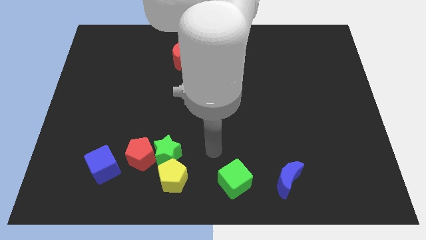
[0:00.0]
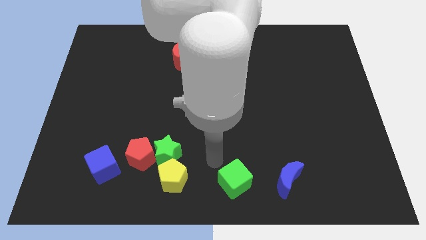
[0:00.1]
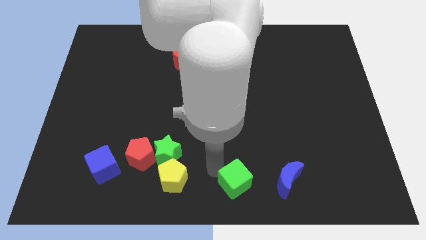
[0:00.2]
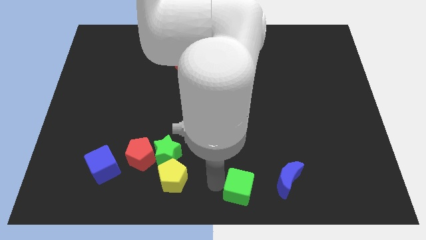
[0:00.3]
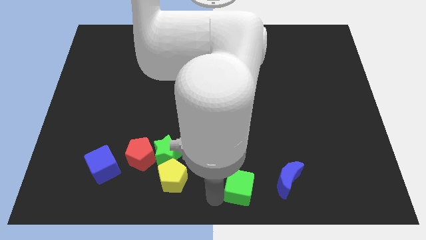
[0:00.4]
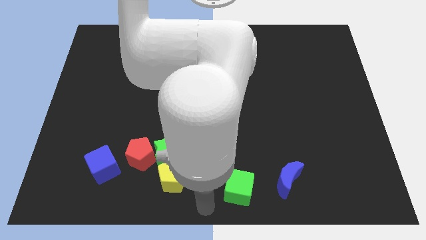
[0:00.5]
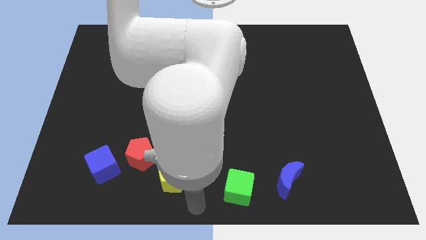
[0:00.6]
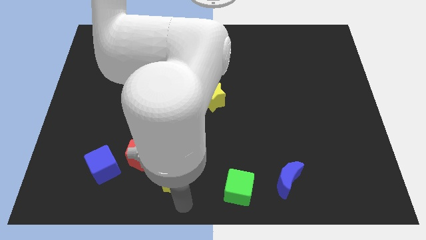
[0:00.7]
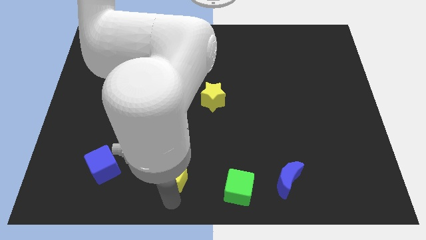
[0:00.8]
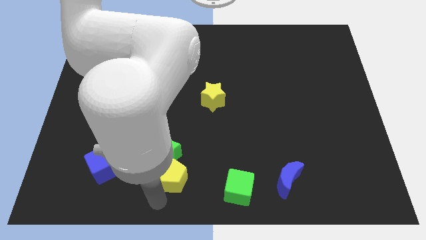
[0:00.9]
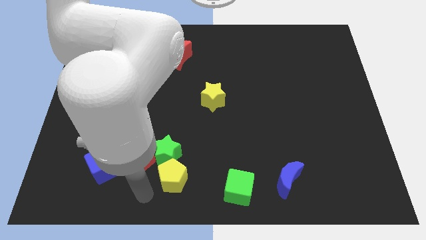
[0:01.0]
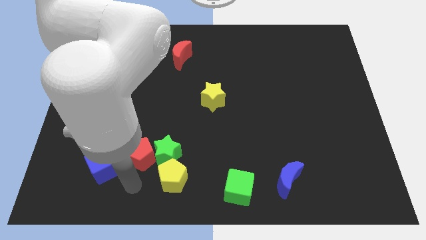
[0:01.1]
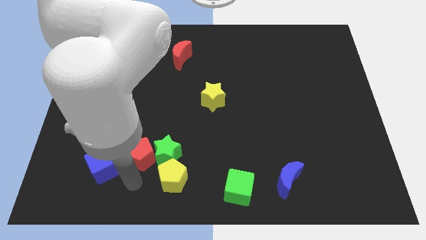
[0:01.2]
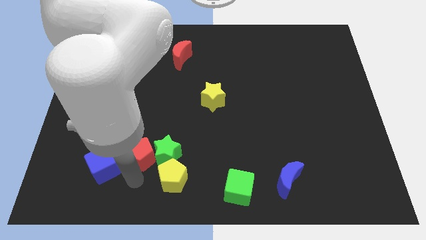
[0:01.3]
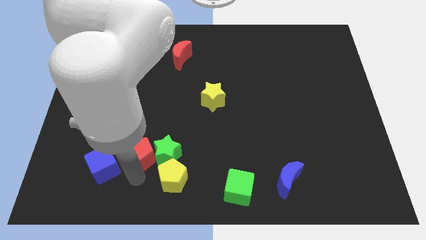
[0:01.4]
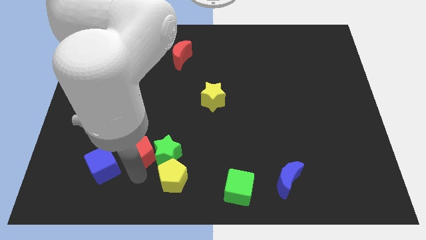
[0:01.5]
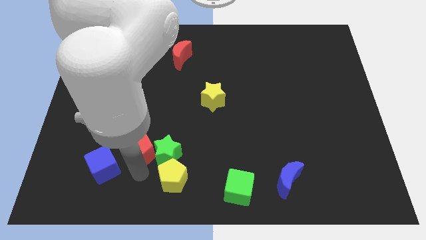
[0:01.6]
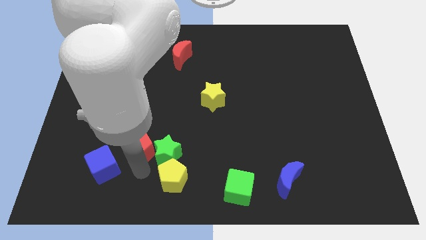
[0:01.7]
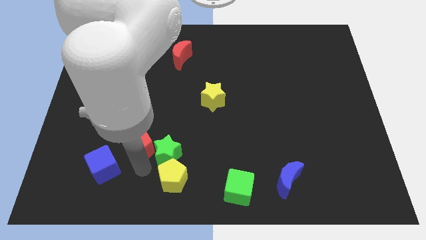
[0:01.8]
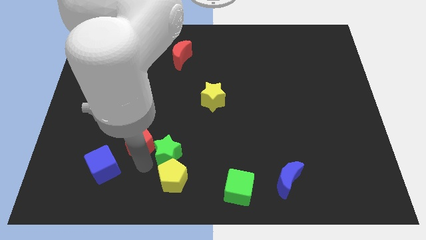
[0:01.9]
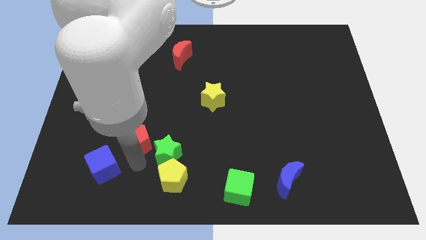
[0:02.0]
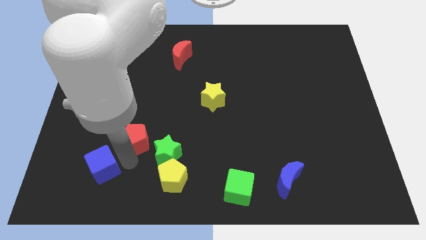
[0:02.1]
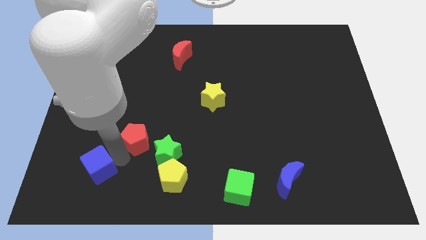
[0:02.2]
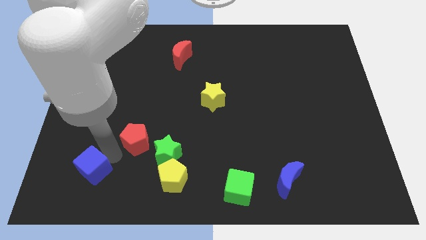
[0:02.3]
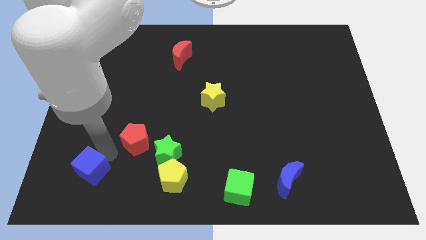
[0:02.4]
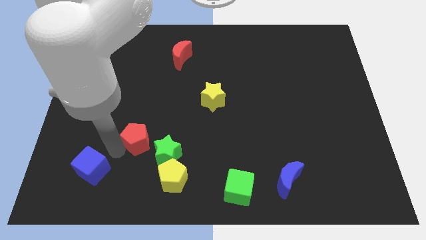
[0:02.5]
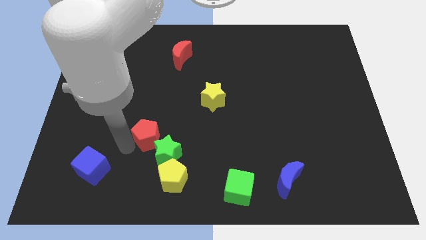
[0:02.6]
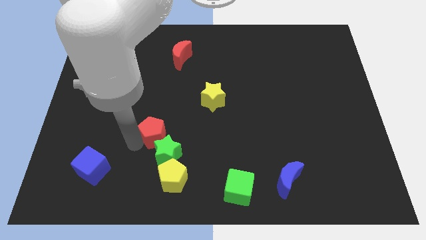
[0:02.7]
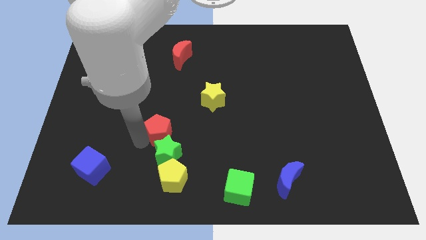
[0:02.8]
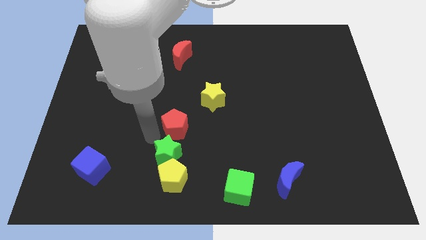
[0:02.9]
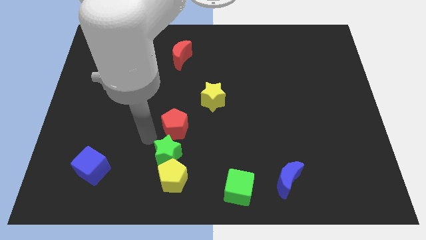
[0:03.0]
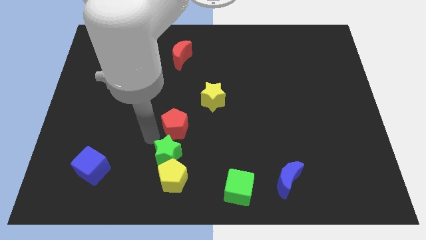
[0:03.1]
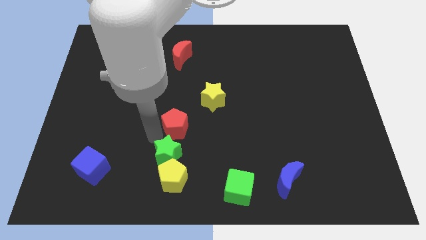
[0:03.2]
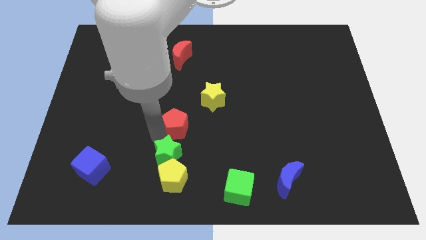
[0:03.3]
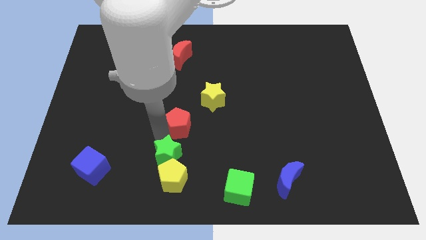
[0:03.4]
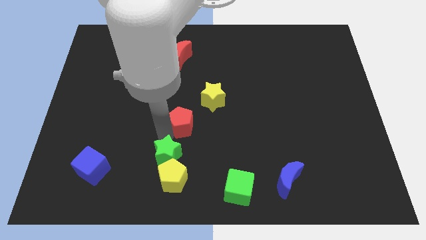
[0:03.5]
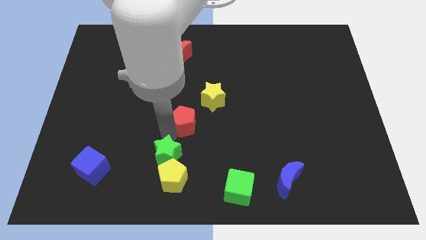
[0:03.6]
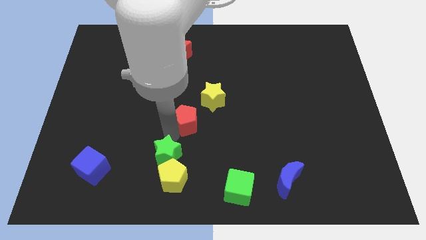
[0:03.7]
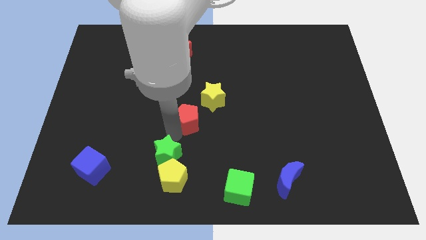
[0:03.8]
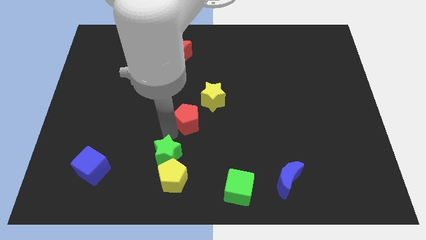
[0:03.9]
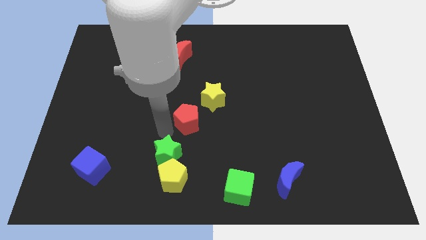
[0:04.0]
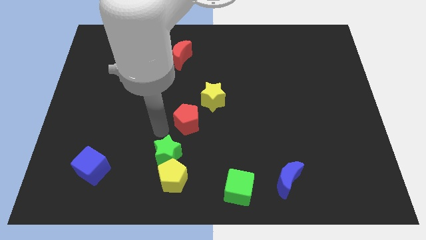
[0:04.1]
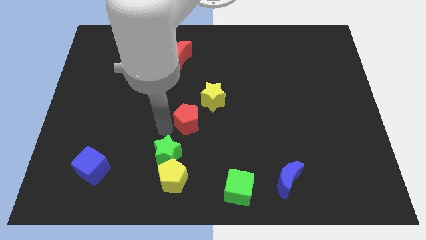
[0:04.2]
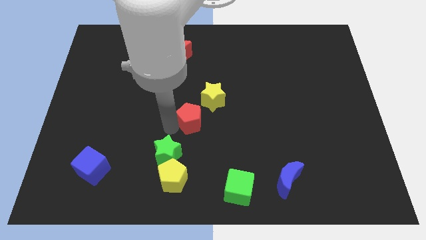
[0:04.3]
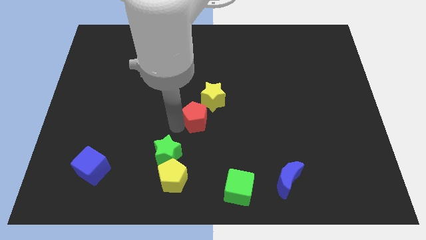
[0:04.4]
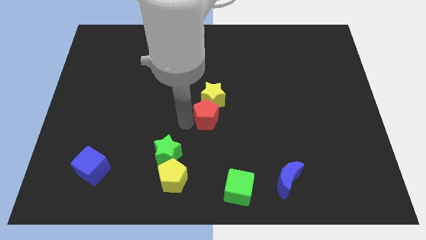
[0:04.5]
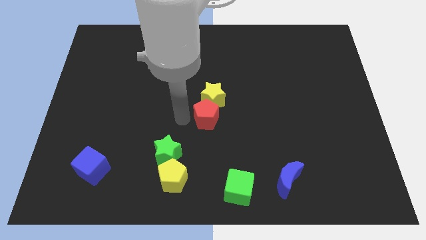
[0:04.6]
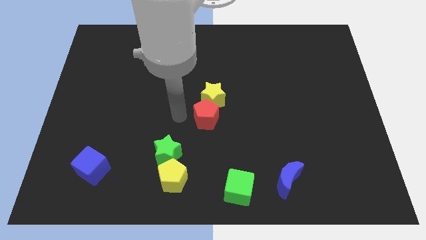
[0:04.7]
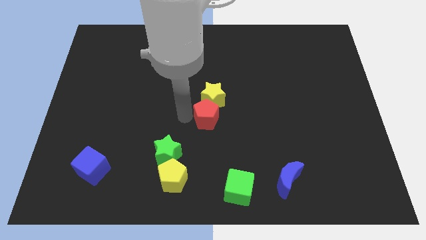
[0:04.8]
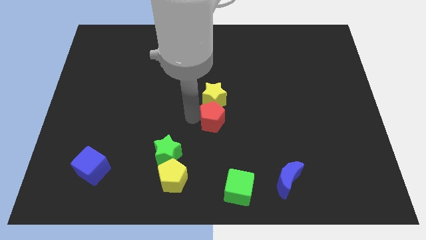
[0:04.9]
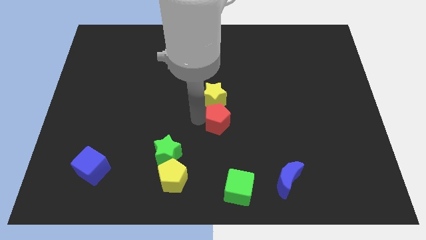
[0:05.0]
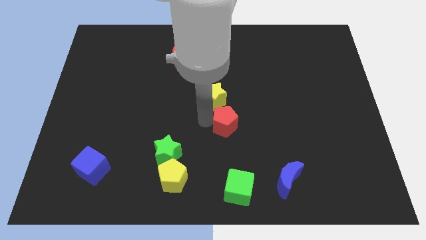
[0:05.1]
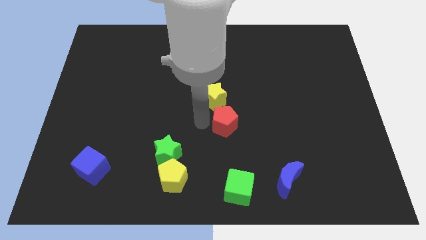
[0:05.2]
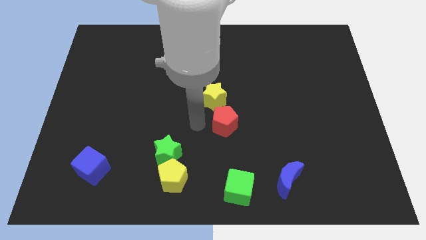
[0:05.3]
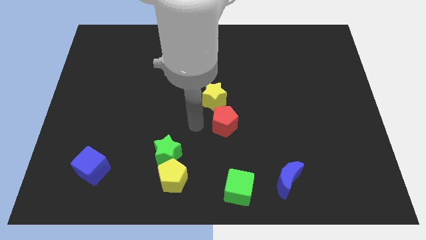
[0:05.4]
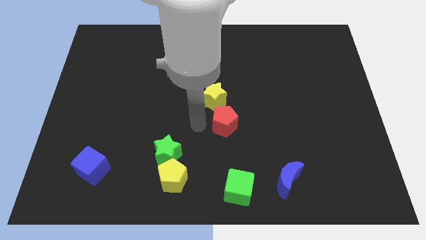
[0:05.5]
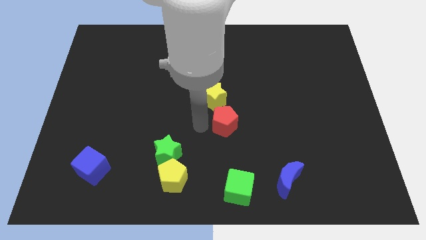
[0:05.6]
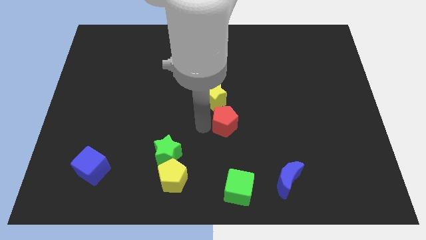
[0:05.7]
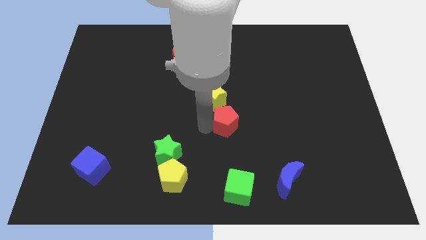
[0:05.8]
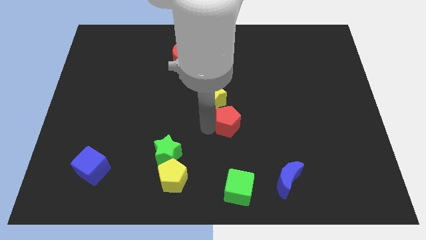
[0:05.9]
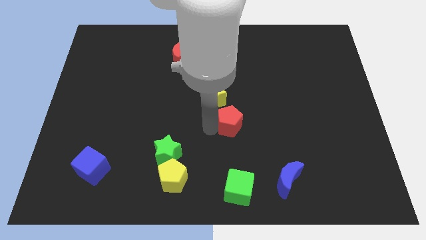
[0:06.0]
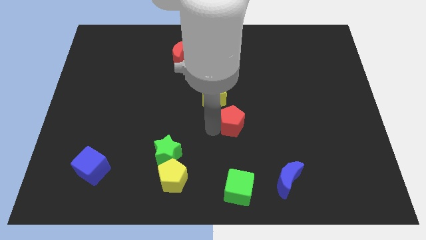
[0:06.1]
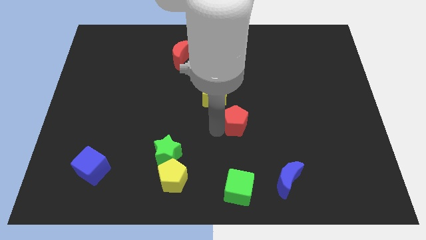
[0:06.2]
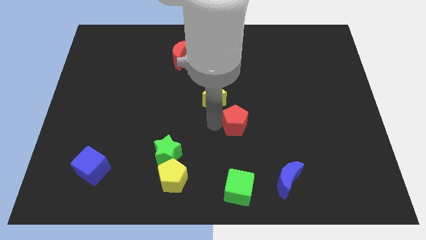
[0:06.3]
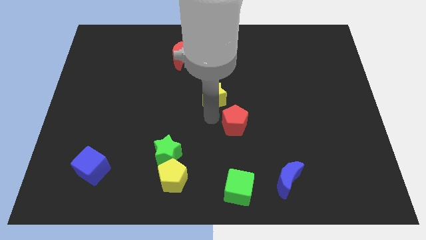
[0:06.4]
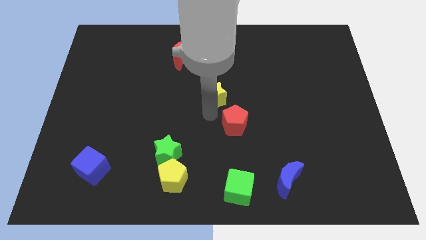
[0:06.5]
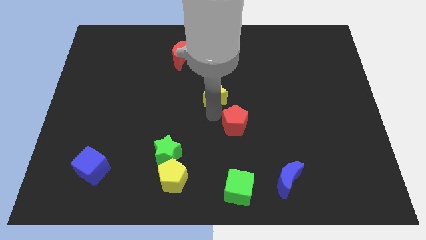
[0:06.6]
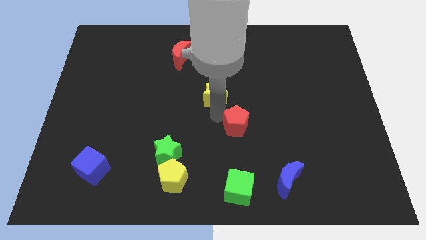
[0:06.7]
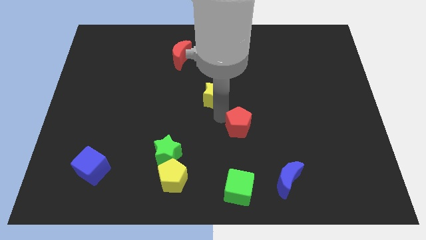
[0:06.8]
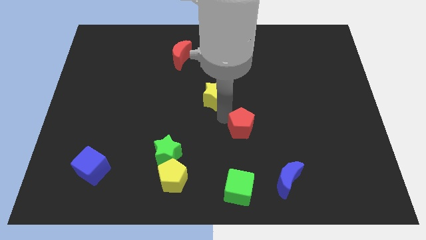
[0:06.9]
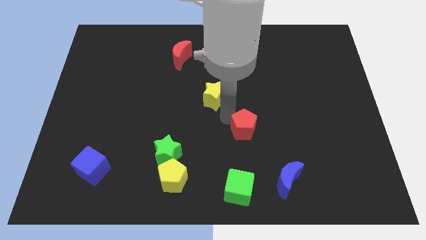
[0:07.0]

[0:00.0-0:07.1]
slide the red pentagon right

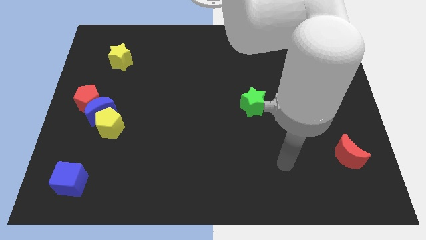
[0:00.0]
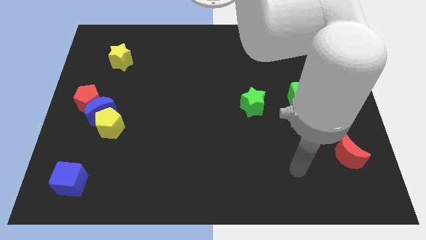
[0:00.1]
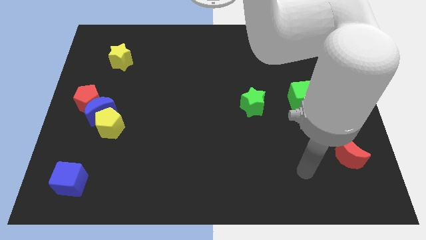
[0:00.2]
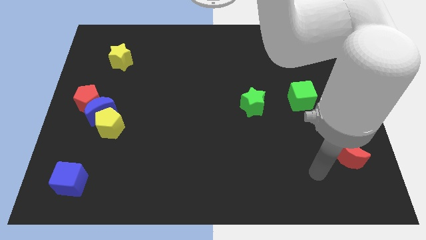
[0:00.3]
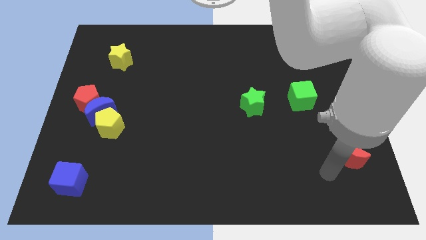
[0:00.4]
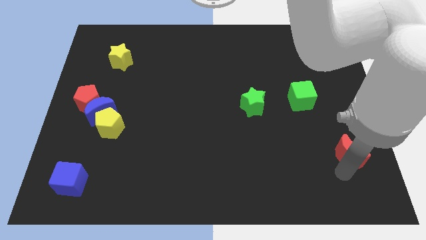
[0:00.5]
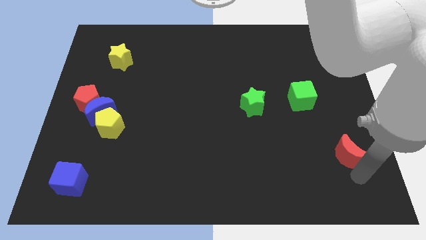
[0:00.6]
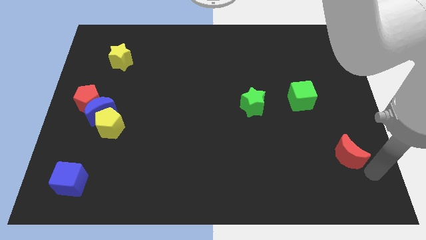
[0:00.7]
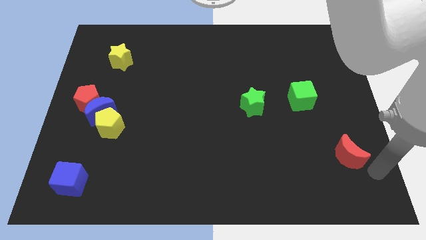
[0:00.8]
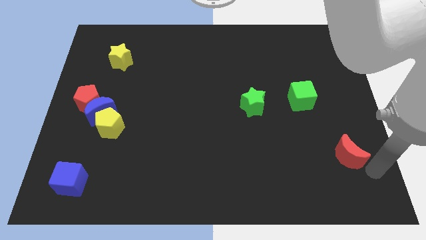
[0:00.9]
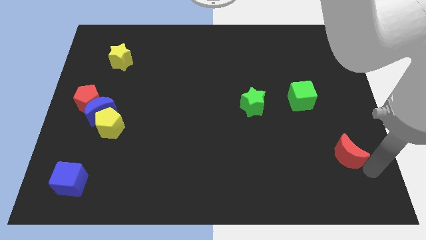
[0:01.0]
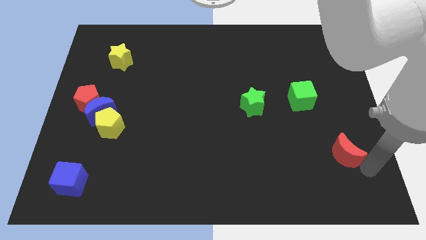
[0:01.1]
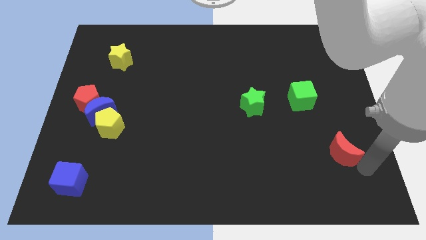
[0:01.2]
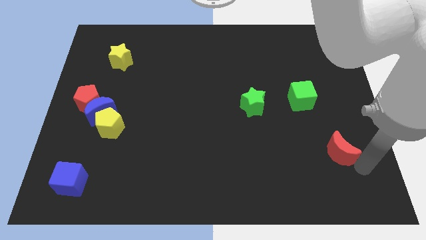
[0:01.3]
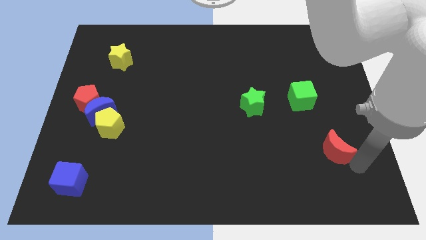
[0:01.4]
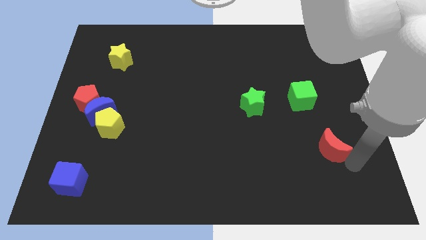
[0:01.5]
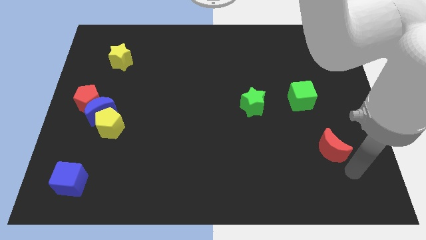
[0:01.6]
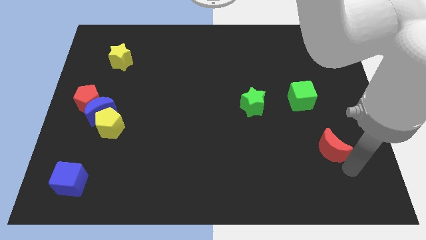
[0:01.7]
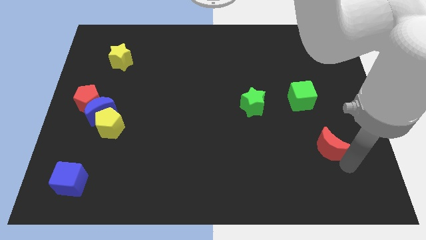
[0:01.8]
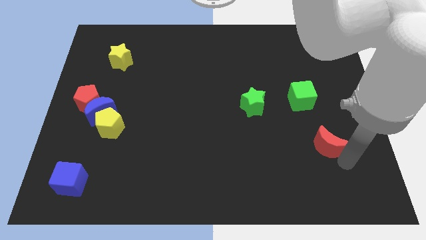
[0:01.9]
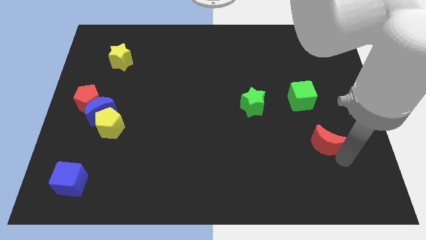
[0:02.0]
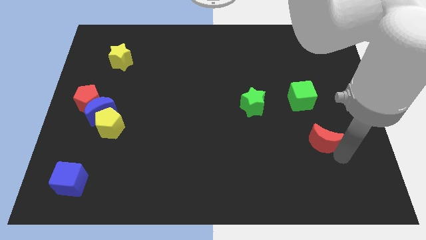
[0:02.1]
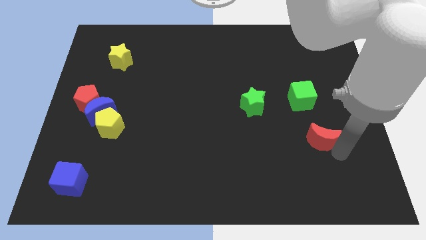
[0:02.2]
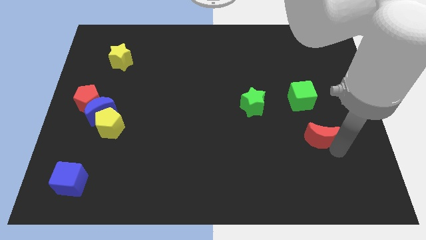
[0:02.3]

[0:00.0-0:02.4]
push the red moon up and to the left diagonally a little
